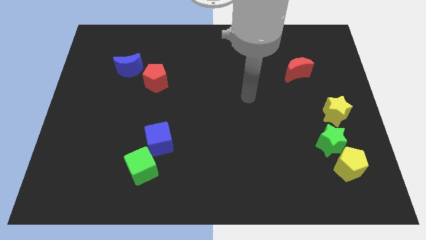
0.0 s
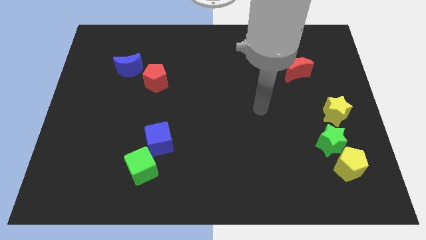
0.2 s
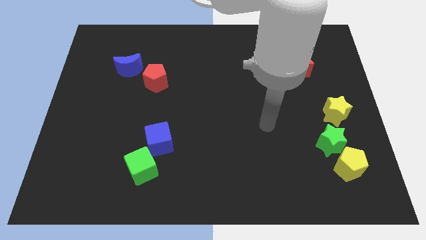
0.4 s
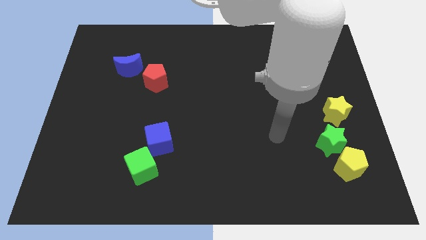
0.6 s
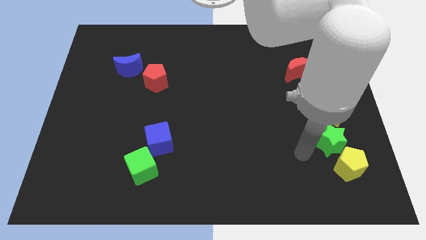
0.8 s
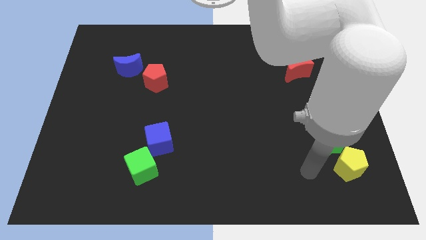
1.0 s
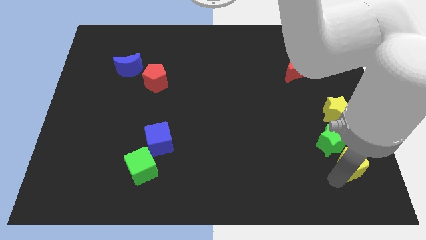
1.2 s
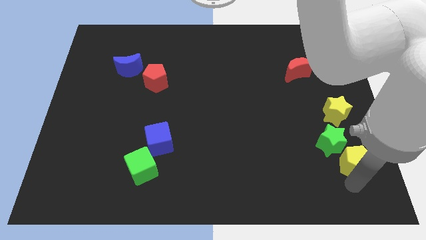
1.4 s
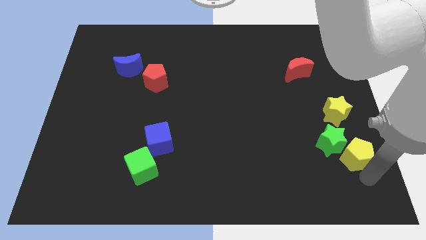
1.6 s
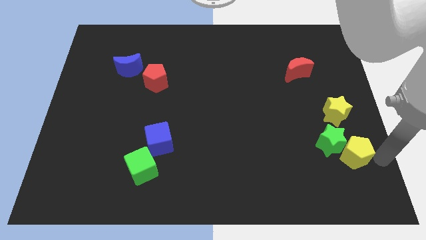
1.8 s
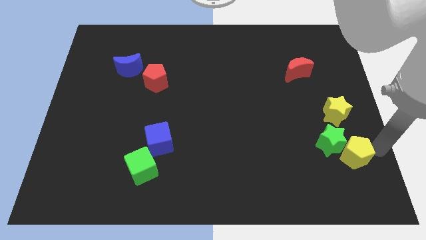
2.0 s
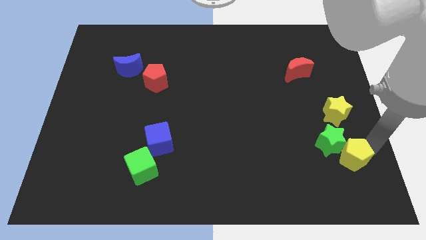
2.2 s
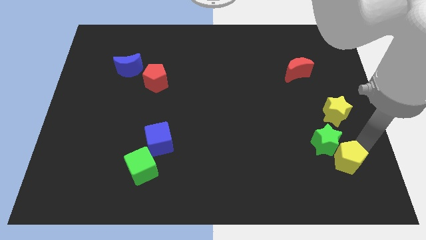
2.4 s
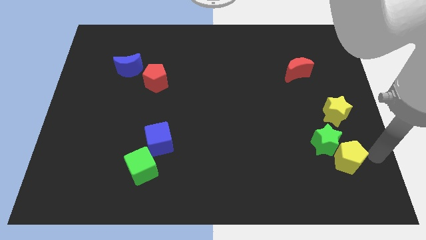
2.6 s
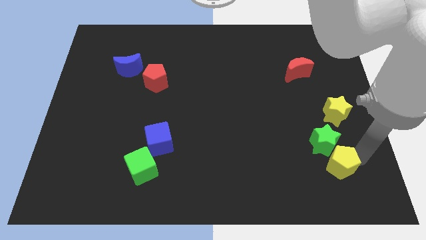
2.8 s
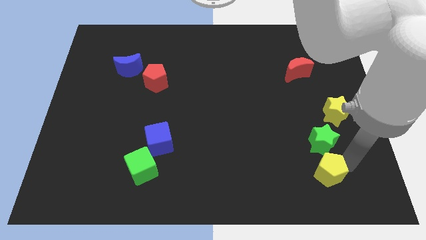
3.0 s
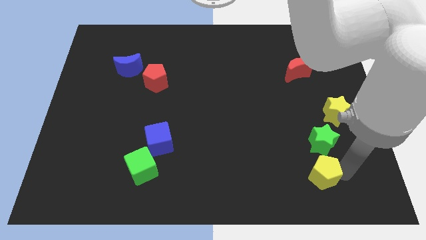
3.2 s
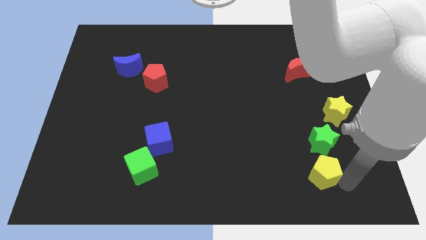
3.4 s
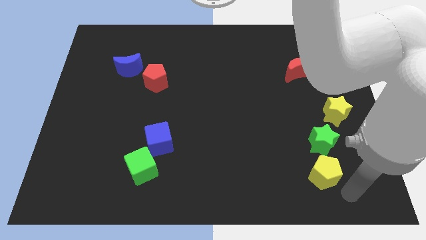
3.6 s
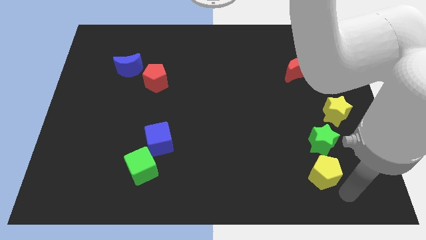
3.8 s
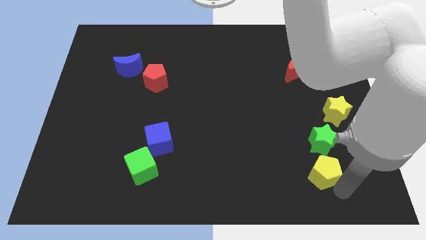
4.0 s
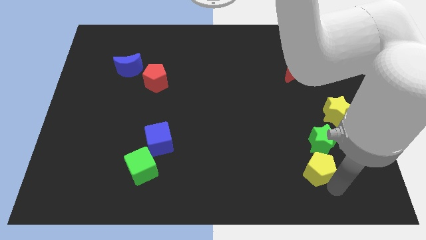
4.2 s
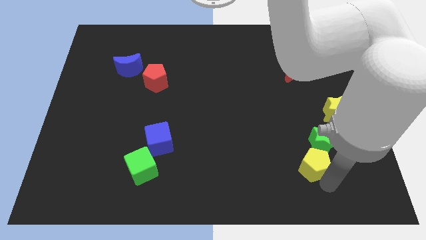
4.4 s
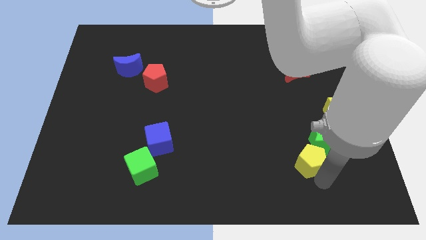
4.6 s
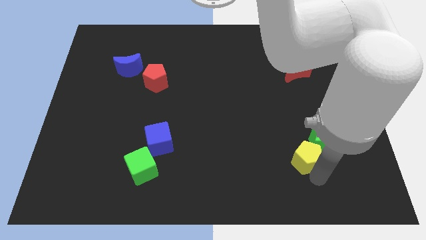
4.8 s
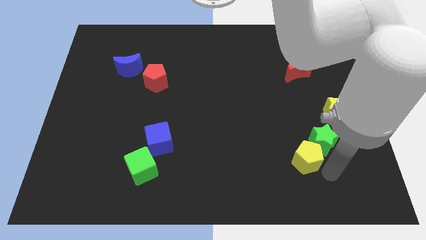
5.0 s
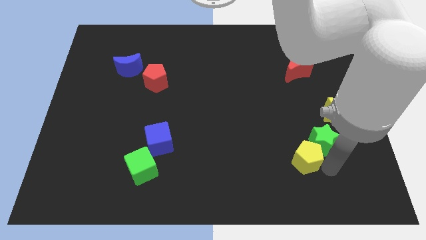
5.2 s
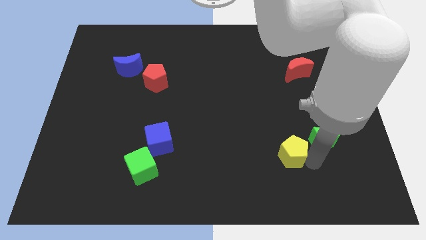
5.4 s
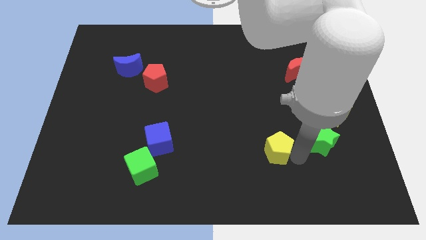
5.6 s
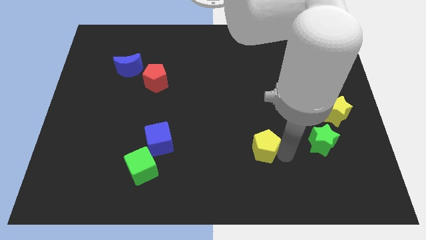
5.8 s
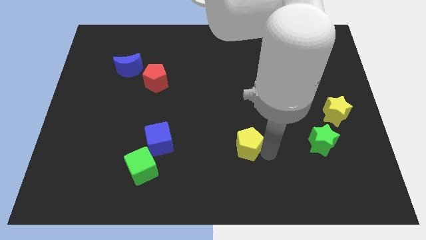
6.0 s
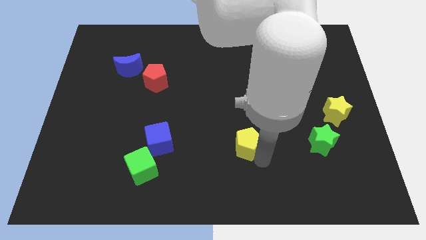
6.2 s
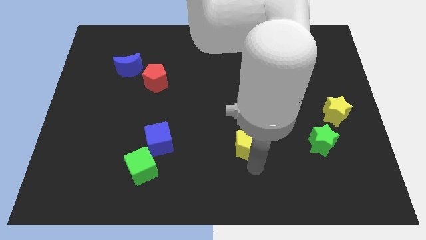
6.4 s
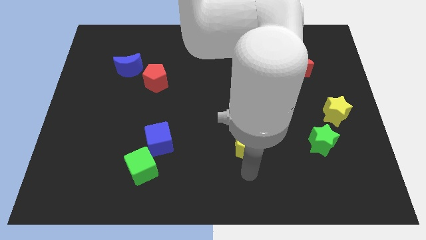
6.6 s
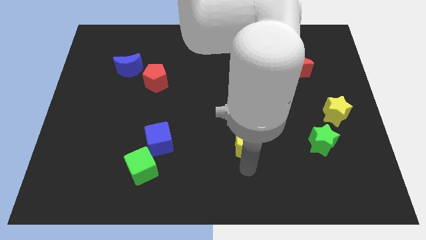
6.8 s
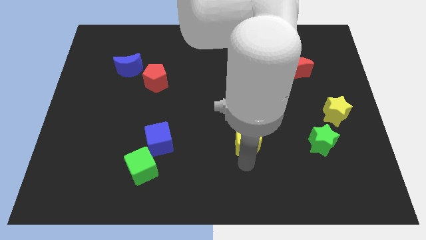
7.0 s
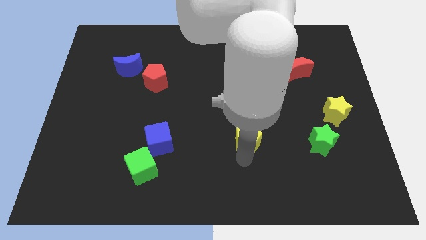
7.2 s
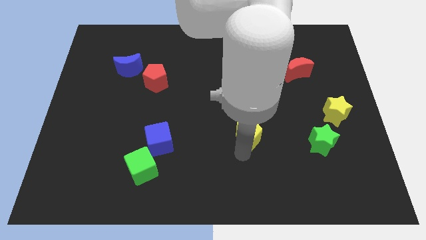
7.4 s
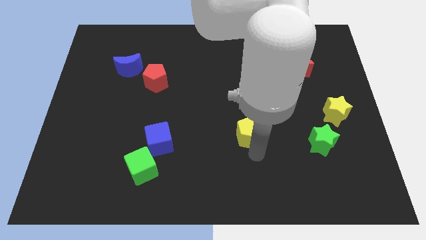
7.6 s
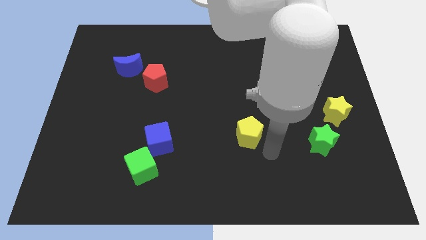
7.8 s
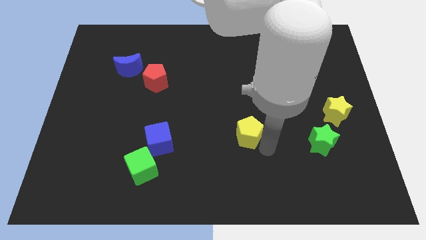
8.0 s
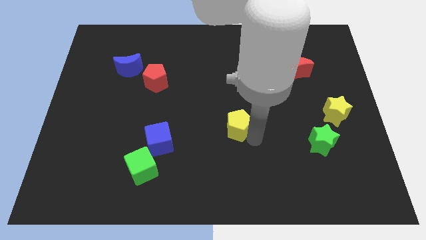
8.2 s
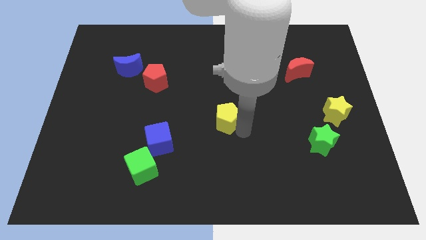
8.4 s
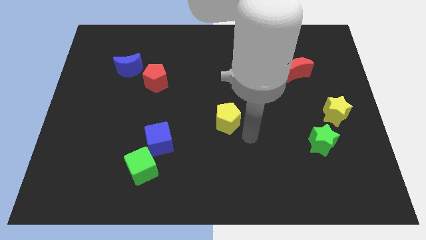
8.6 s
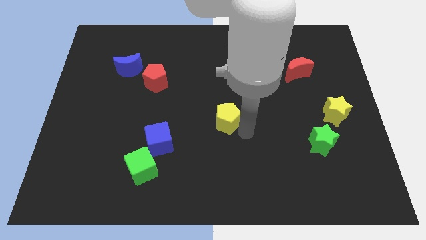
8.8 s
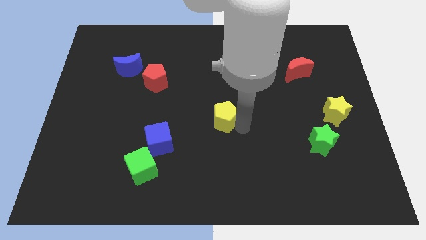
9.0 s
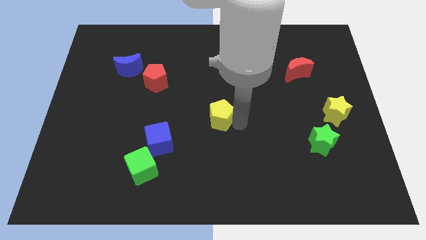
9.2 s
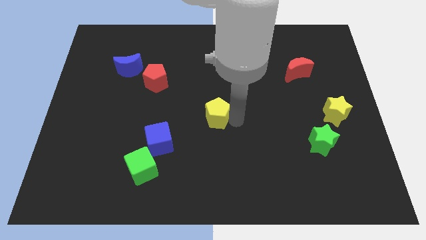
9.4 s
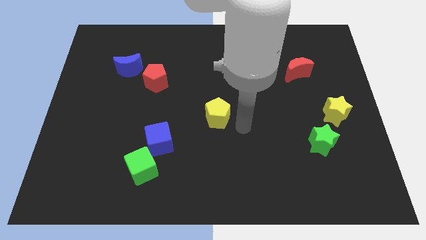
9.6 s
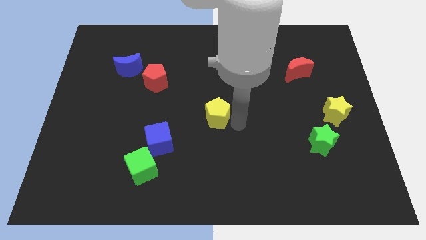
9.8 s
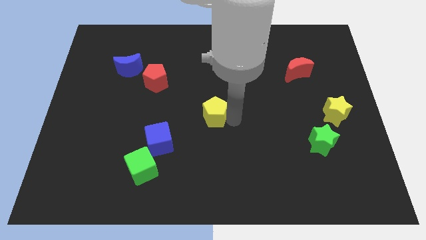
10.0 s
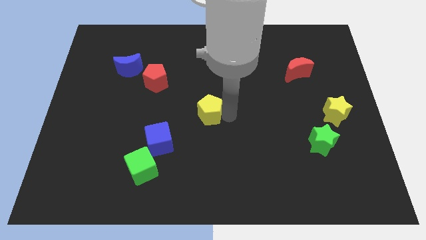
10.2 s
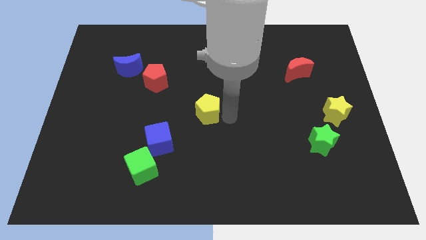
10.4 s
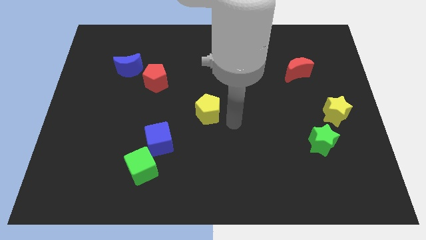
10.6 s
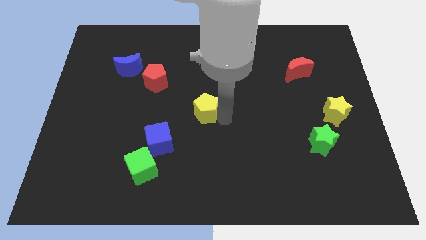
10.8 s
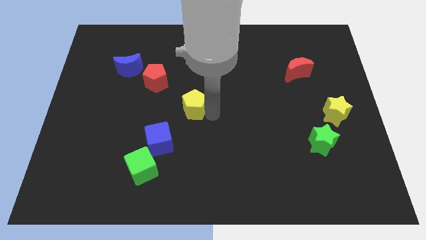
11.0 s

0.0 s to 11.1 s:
push the yellow pentagon to the bottom right of the red pentagon

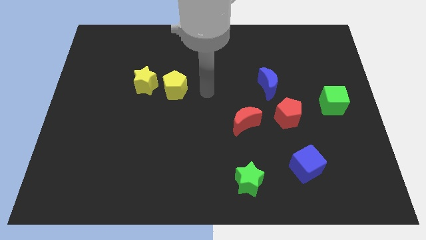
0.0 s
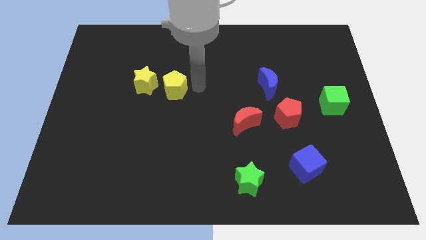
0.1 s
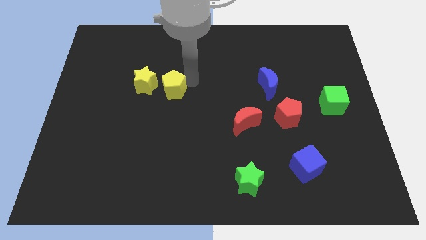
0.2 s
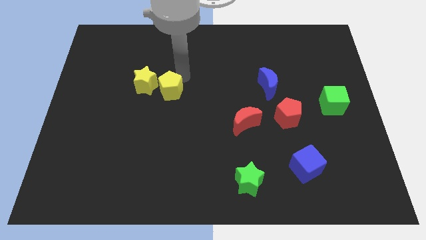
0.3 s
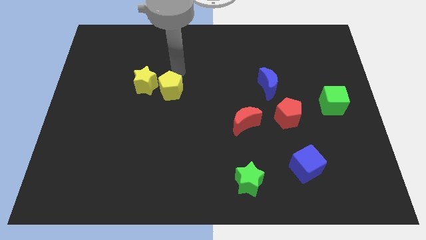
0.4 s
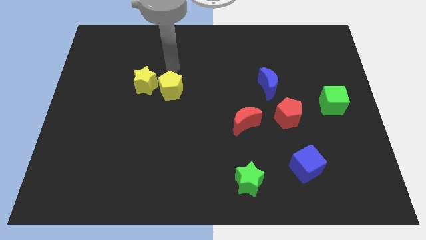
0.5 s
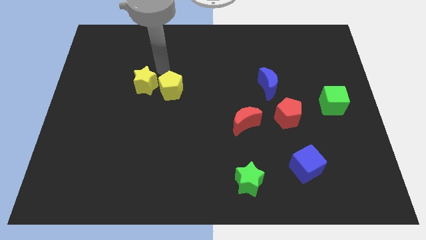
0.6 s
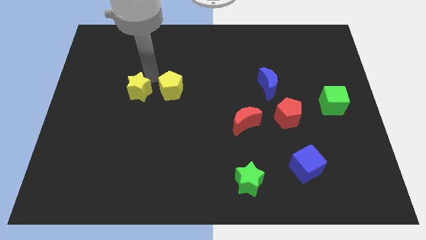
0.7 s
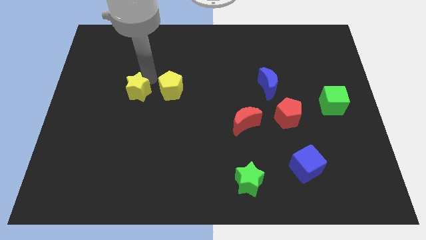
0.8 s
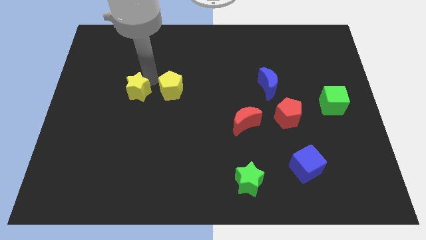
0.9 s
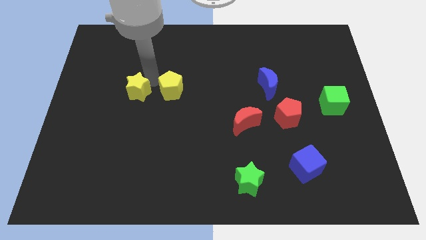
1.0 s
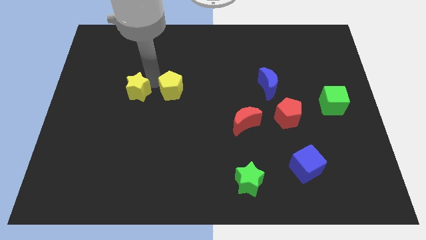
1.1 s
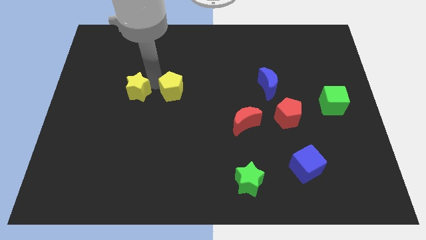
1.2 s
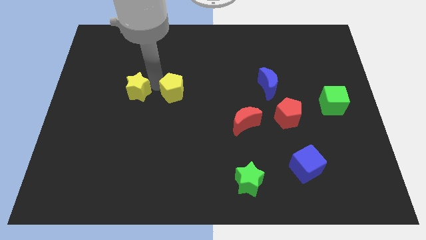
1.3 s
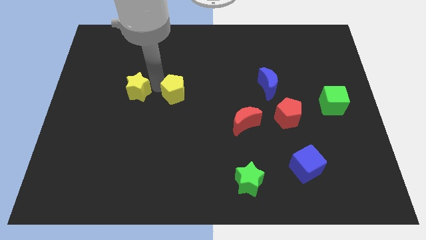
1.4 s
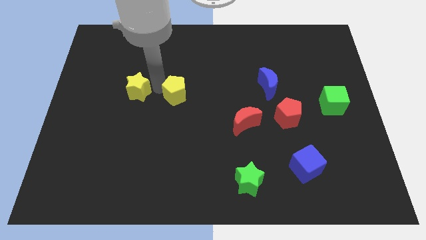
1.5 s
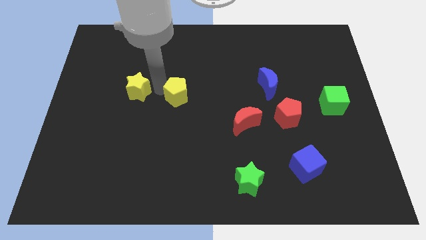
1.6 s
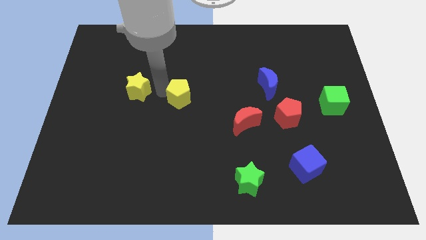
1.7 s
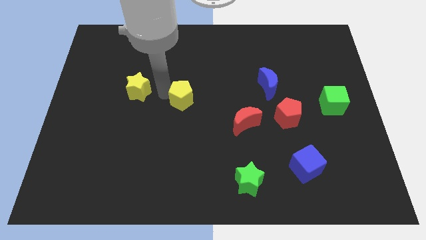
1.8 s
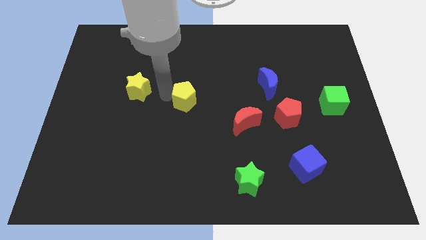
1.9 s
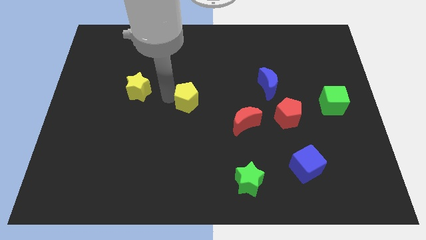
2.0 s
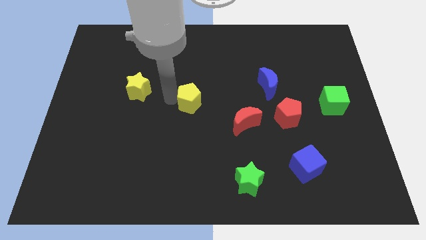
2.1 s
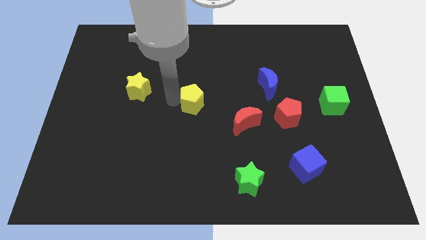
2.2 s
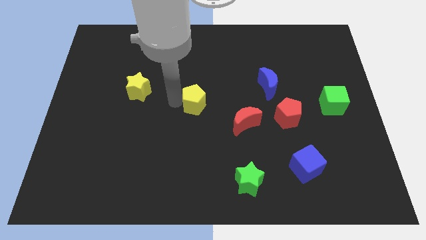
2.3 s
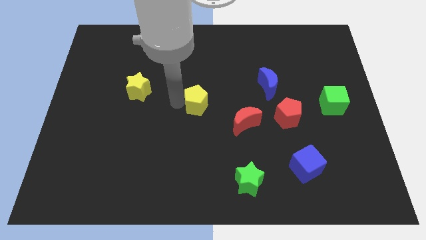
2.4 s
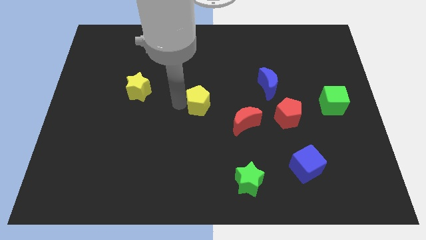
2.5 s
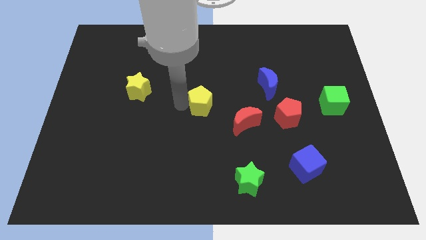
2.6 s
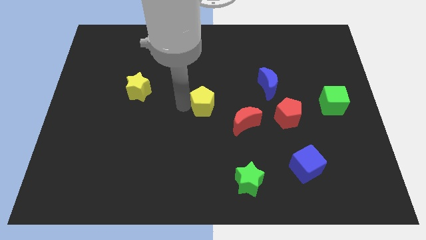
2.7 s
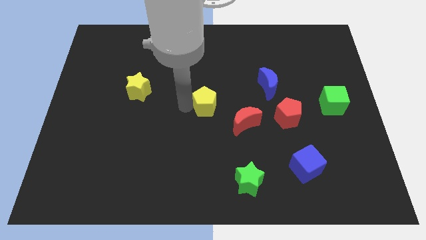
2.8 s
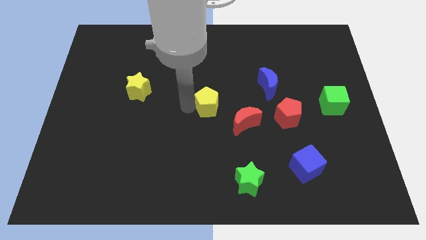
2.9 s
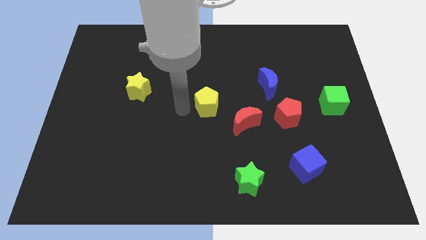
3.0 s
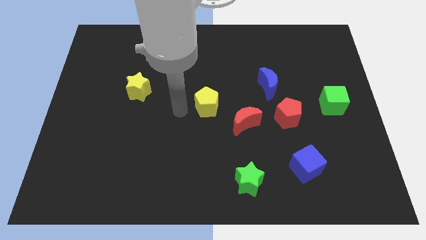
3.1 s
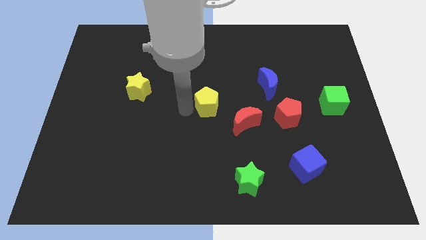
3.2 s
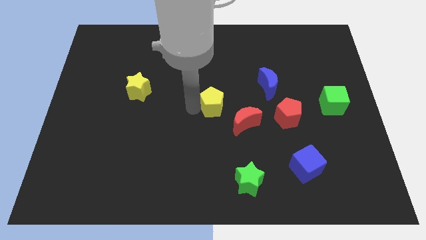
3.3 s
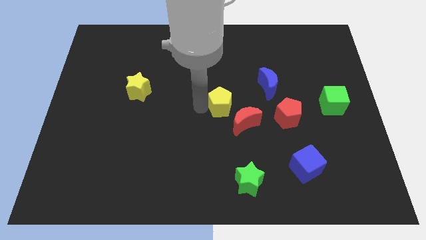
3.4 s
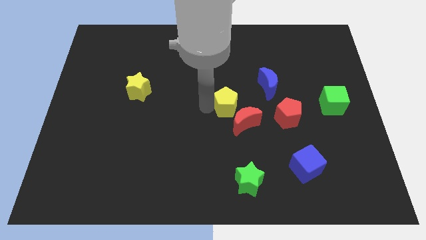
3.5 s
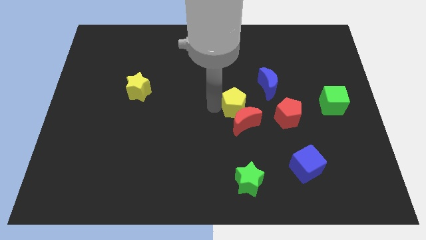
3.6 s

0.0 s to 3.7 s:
slide the yellow pentagon diagonally down and to the left of the blue moon
